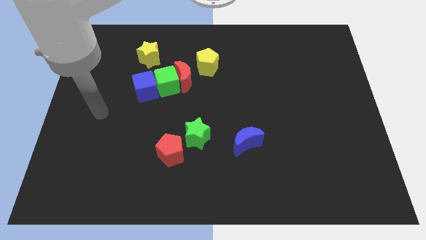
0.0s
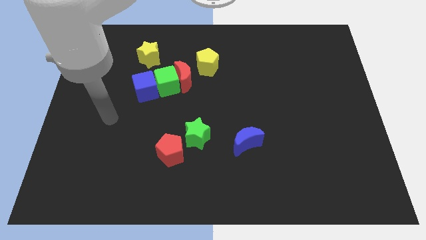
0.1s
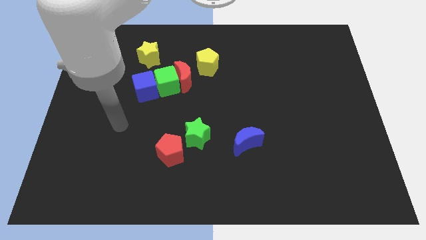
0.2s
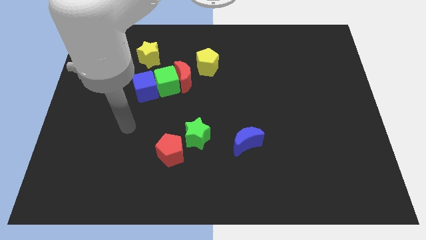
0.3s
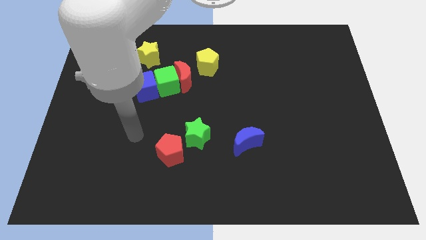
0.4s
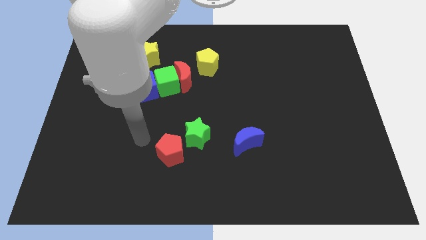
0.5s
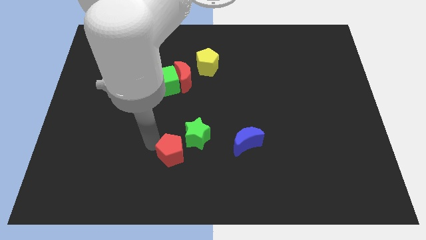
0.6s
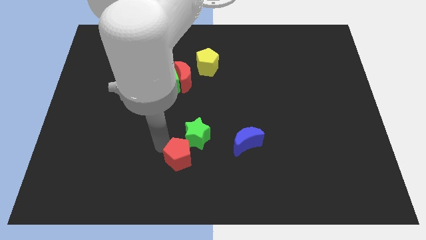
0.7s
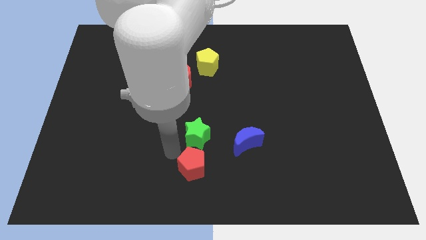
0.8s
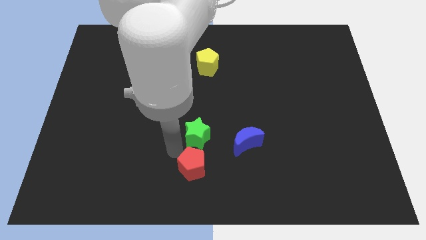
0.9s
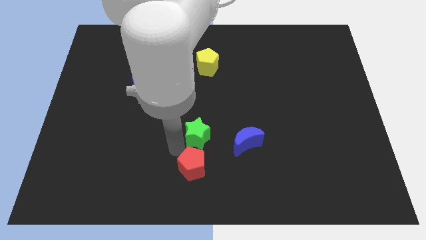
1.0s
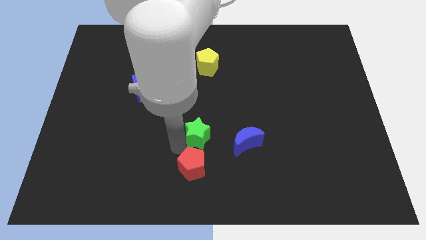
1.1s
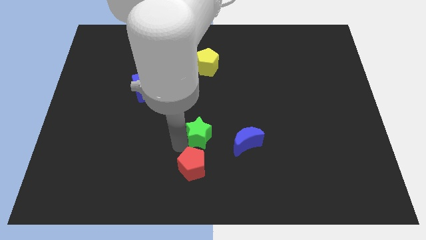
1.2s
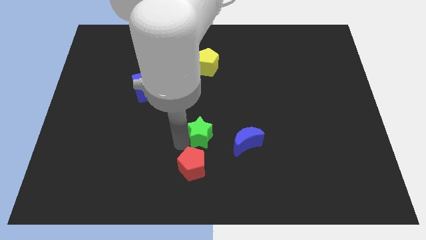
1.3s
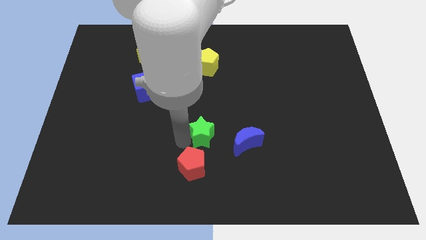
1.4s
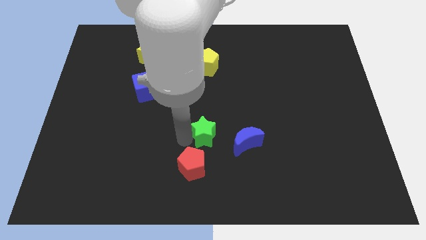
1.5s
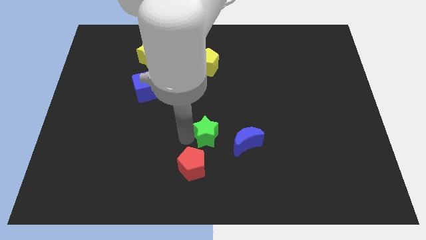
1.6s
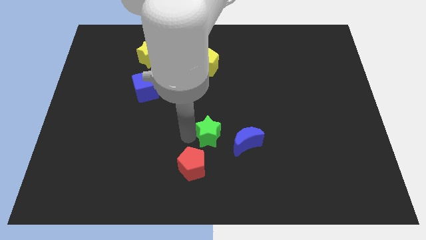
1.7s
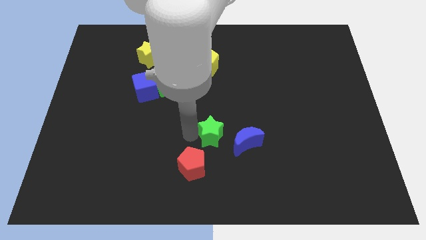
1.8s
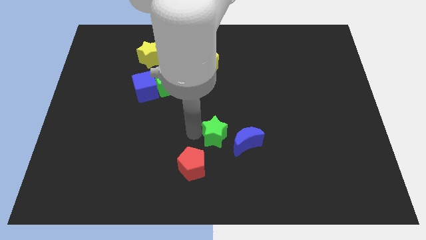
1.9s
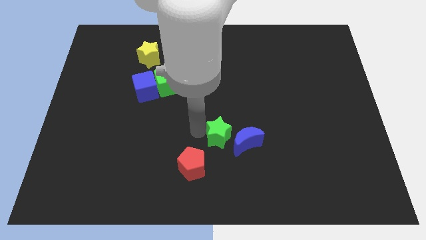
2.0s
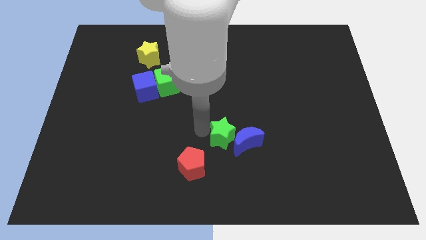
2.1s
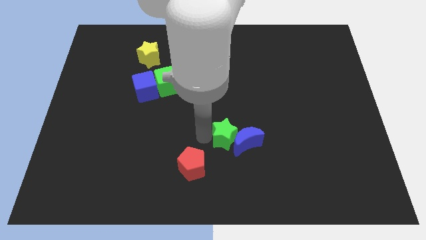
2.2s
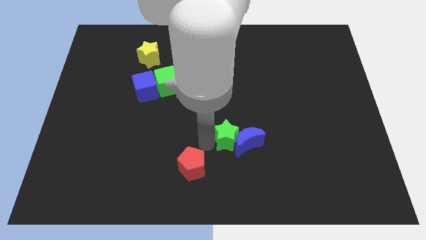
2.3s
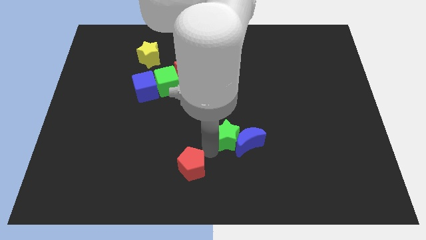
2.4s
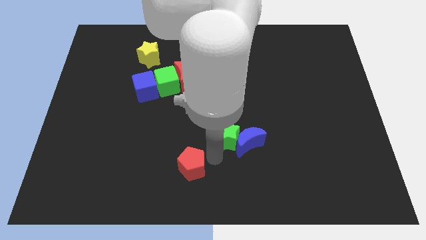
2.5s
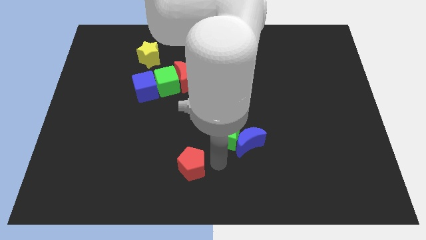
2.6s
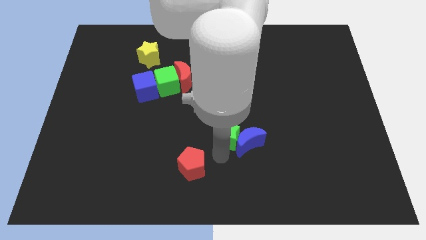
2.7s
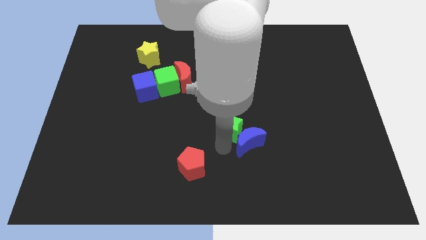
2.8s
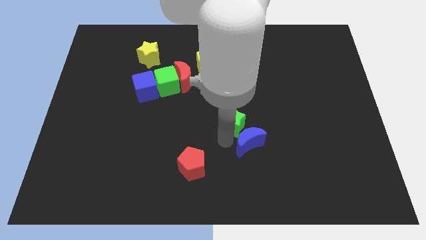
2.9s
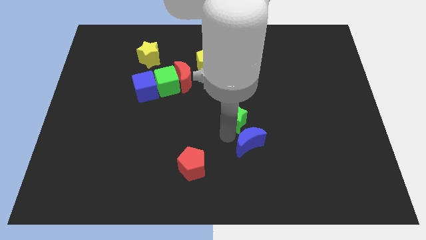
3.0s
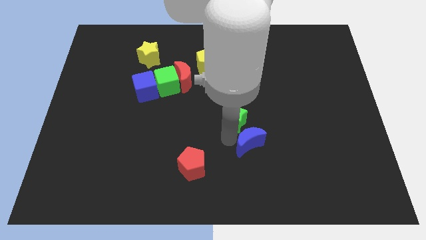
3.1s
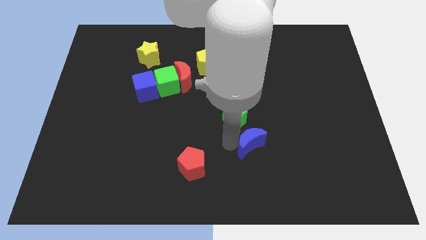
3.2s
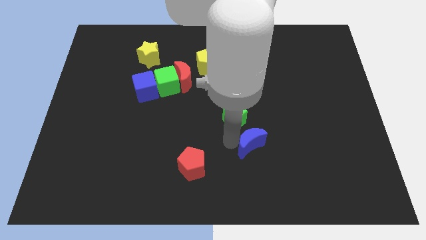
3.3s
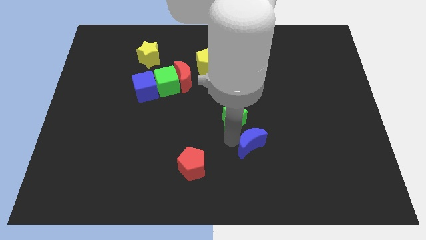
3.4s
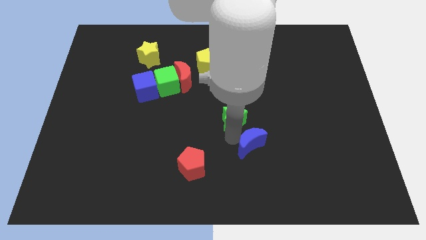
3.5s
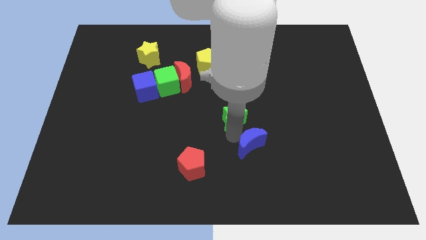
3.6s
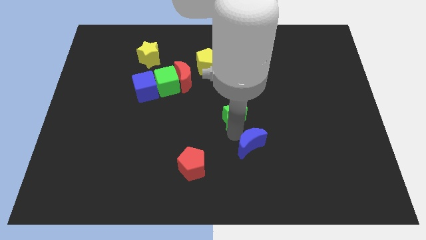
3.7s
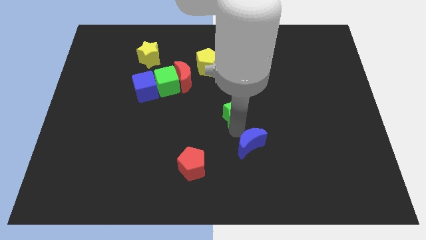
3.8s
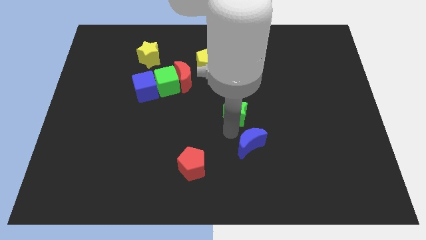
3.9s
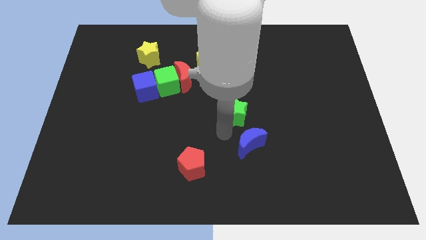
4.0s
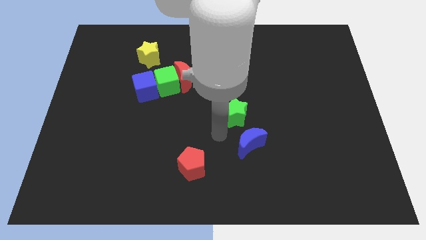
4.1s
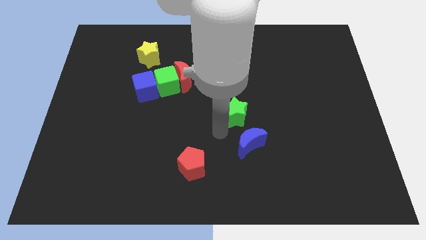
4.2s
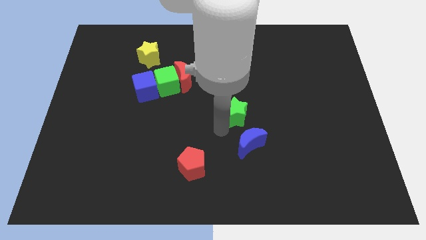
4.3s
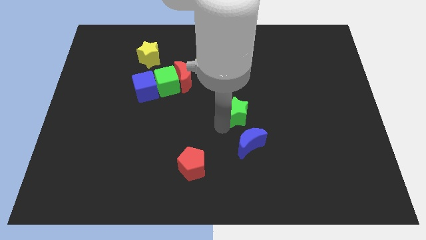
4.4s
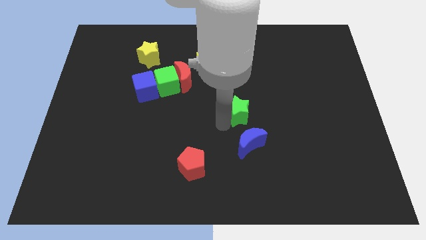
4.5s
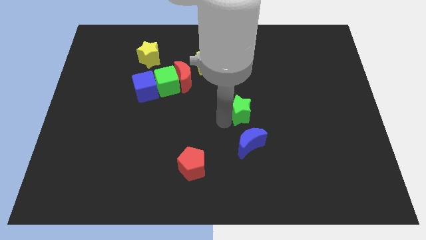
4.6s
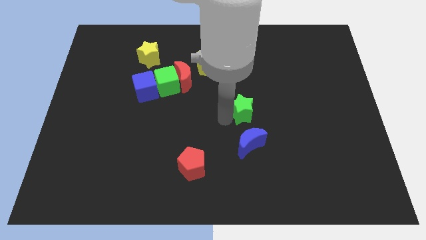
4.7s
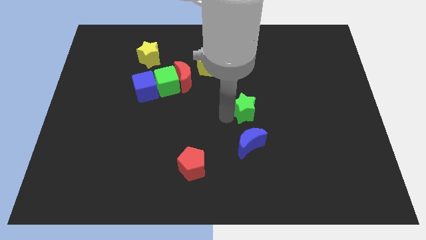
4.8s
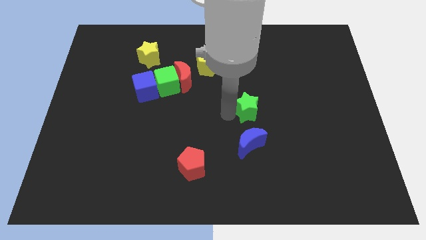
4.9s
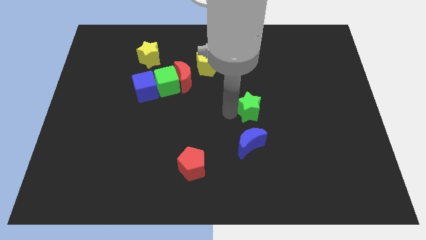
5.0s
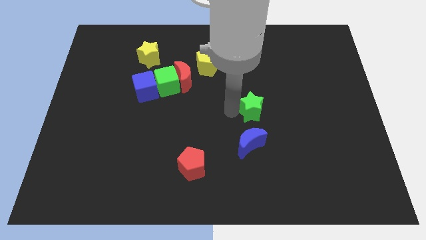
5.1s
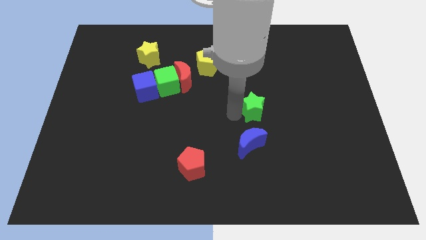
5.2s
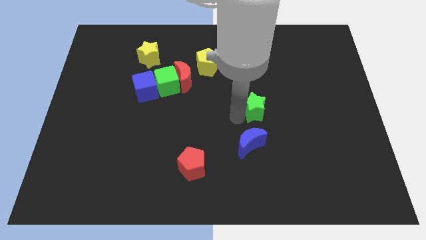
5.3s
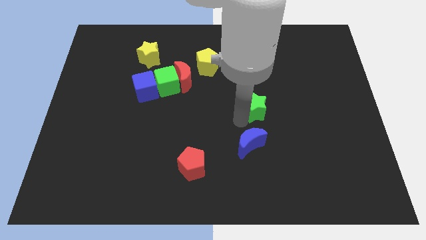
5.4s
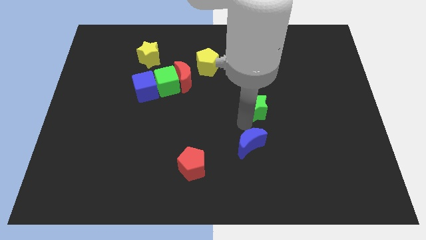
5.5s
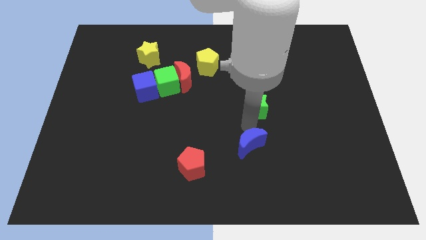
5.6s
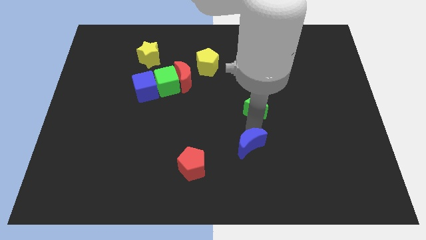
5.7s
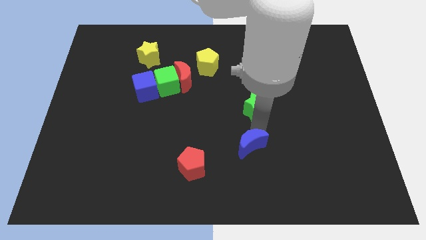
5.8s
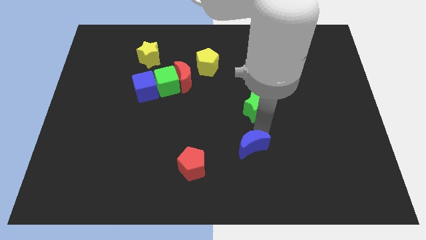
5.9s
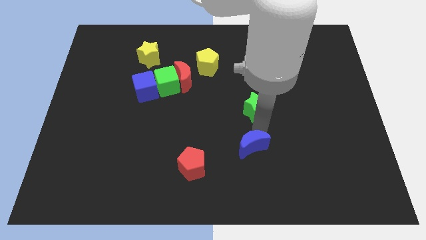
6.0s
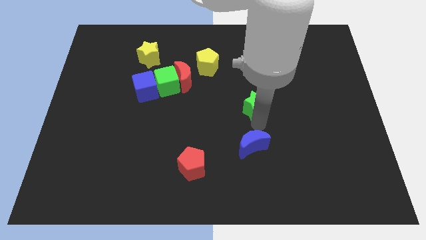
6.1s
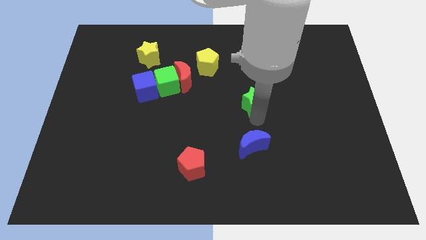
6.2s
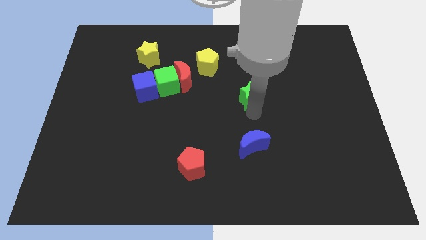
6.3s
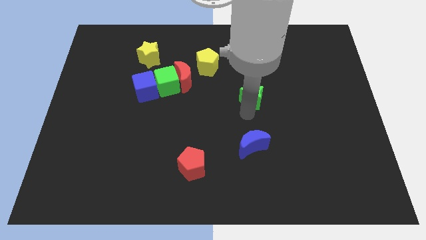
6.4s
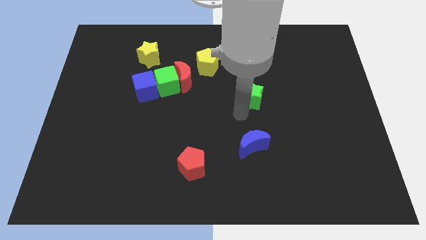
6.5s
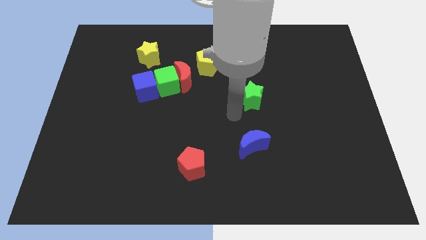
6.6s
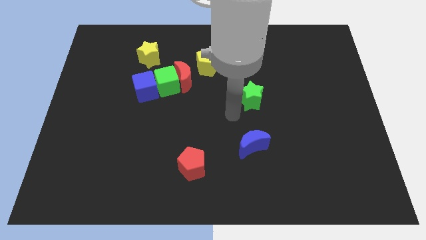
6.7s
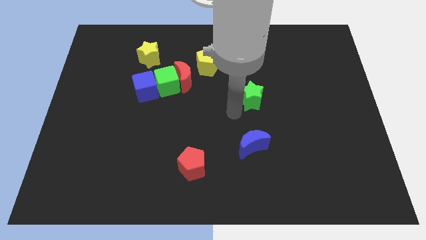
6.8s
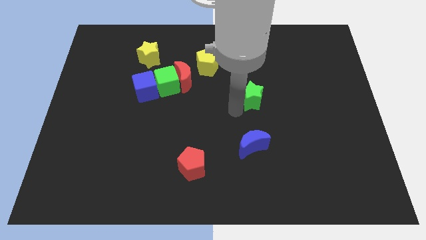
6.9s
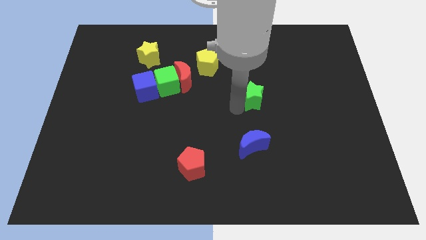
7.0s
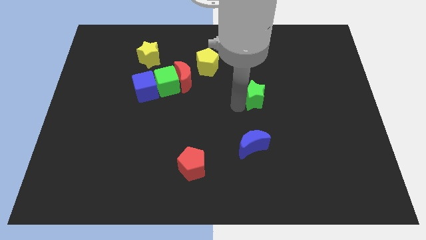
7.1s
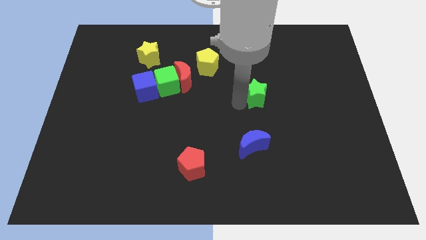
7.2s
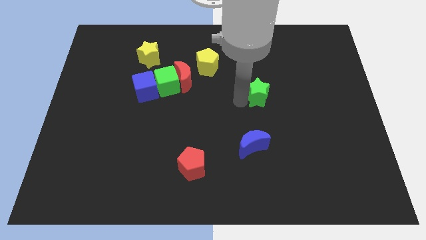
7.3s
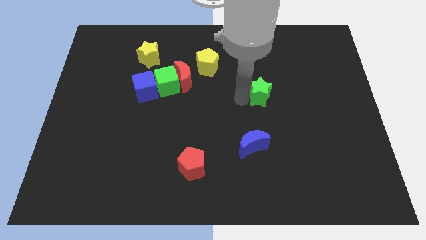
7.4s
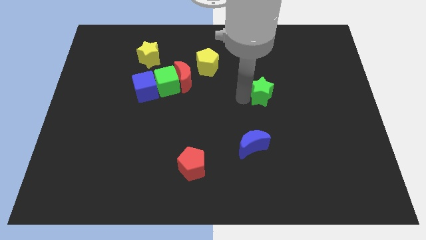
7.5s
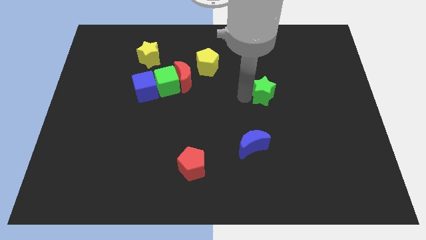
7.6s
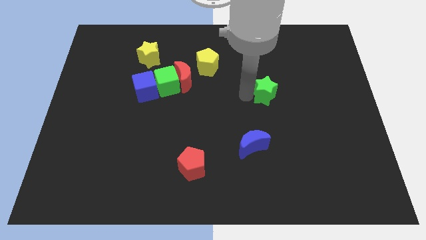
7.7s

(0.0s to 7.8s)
push the green star up and to the right diagonally

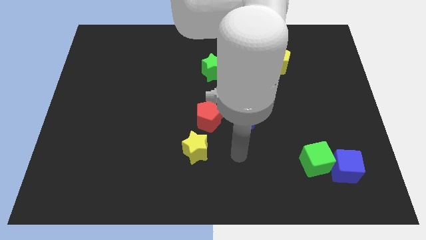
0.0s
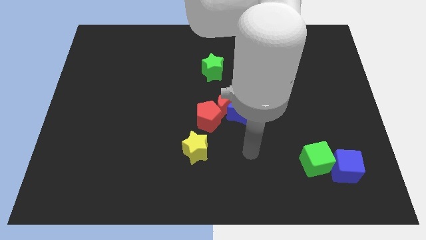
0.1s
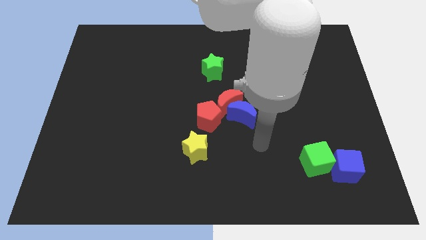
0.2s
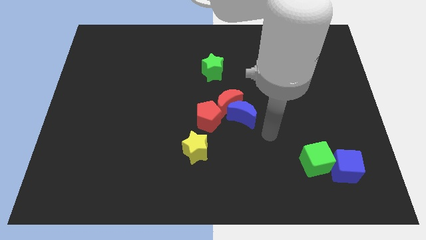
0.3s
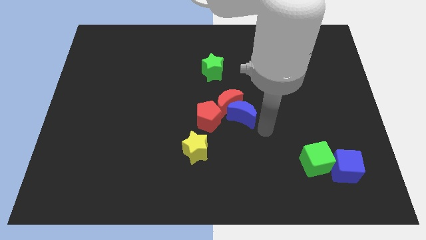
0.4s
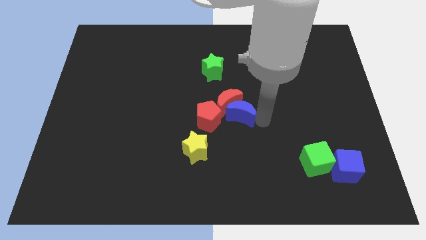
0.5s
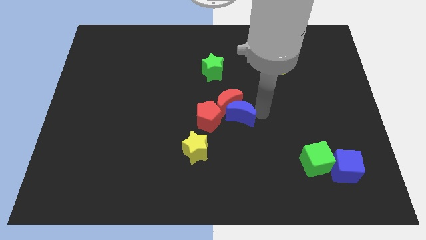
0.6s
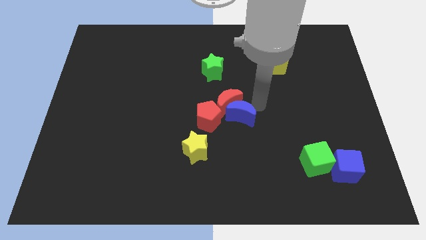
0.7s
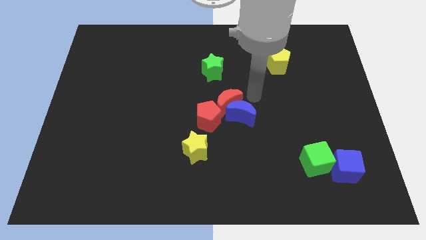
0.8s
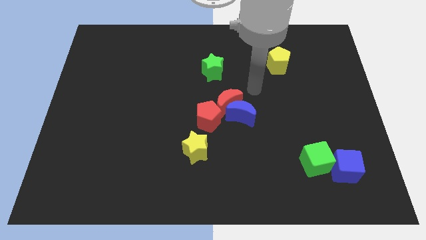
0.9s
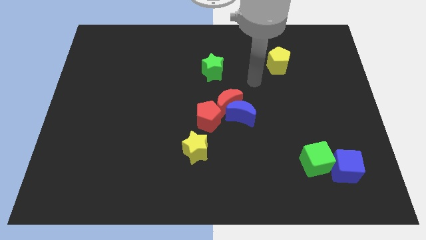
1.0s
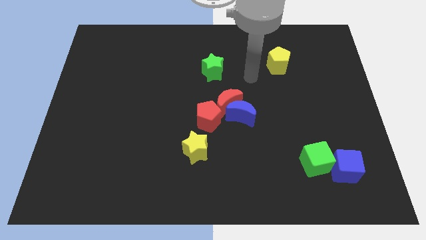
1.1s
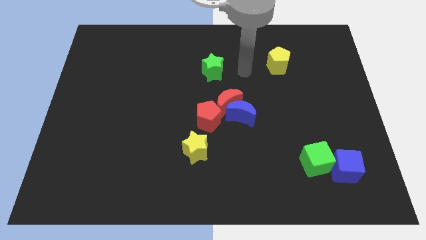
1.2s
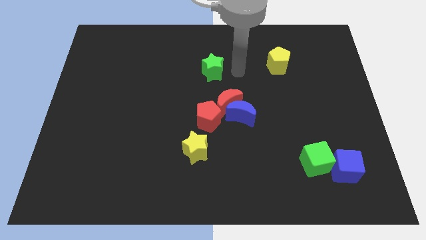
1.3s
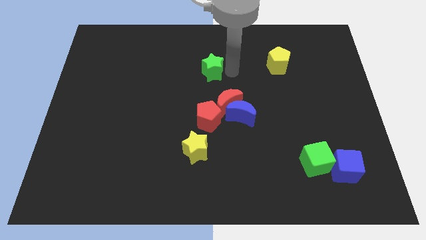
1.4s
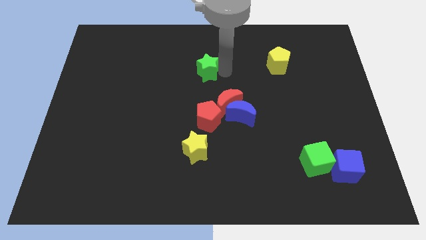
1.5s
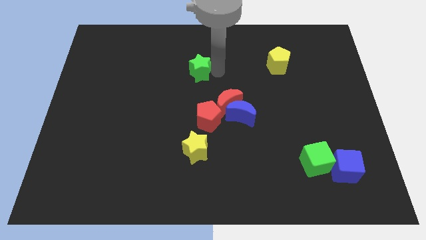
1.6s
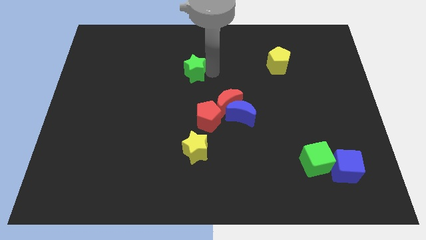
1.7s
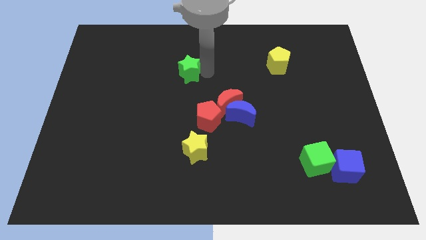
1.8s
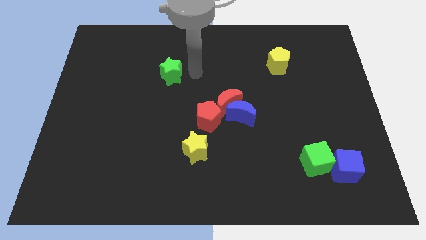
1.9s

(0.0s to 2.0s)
move the green star somewhat left
